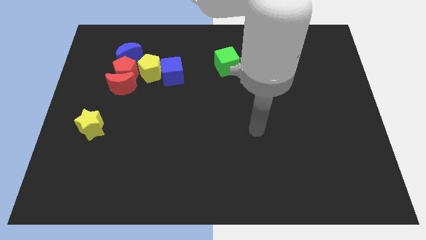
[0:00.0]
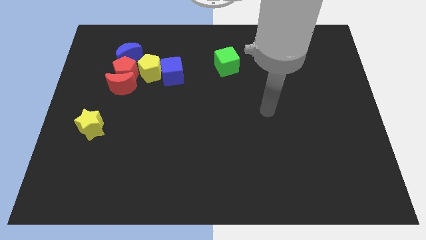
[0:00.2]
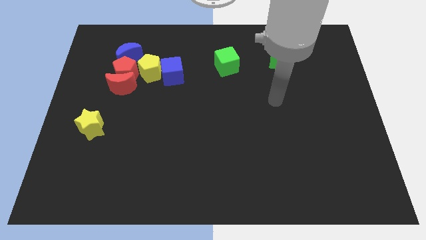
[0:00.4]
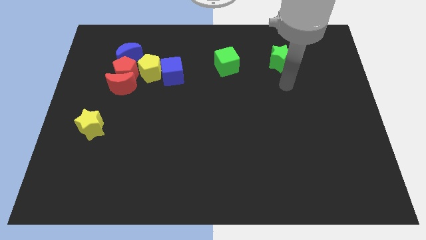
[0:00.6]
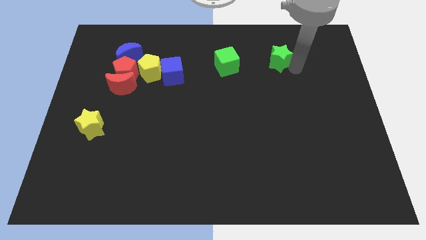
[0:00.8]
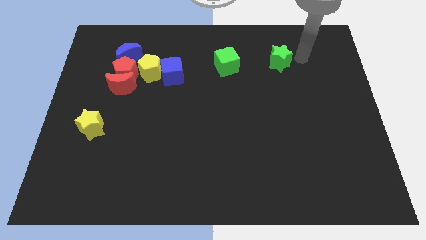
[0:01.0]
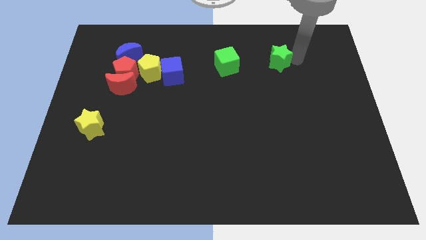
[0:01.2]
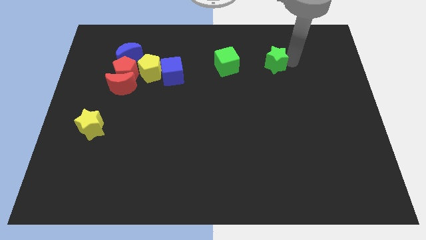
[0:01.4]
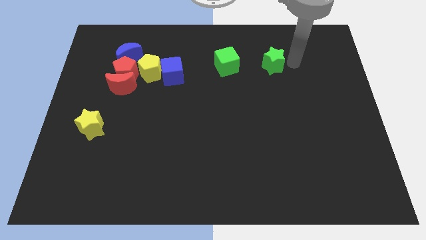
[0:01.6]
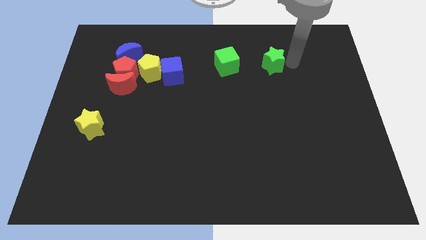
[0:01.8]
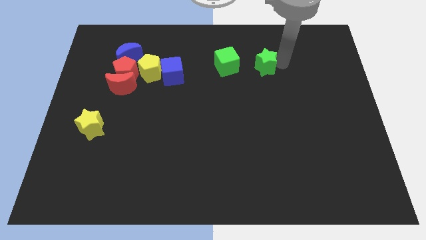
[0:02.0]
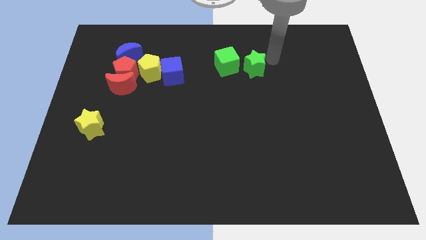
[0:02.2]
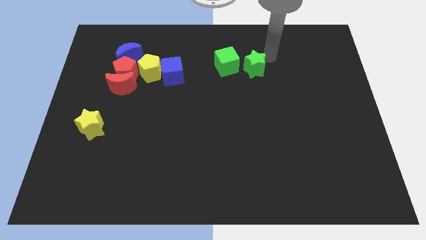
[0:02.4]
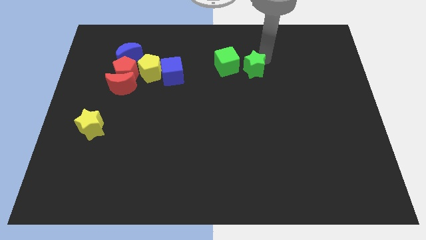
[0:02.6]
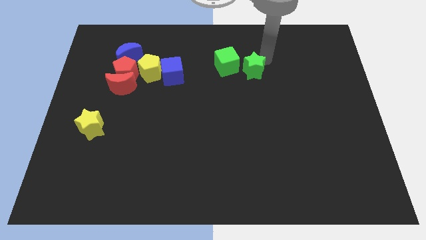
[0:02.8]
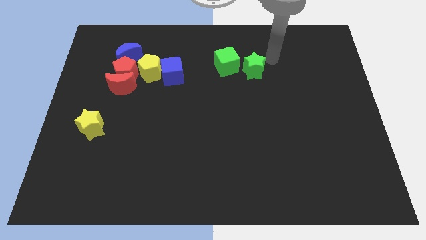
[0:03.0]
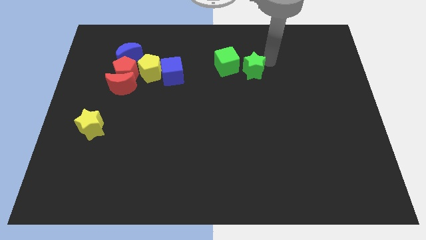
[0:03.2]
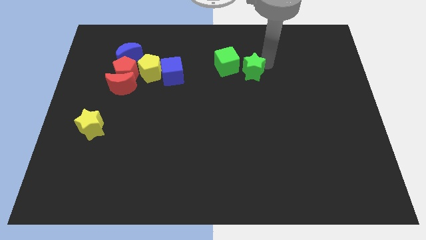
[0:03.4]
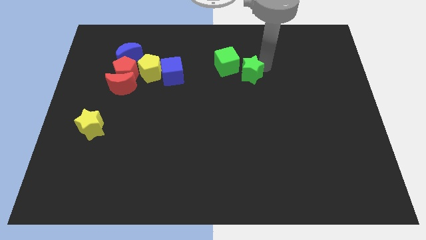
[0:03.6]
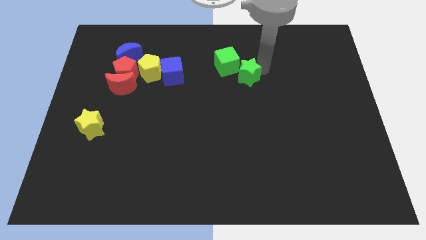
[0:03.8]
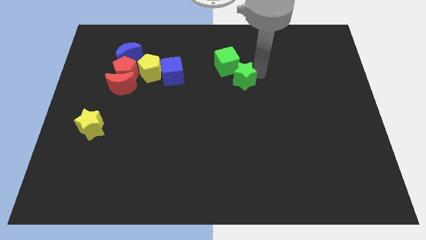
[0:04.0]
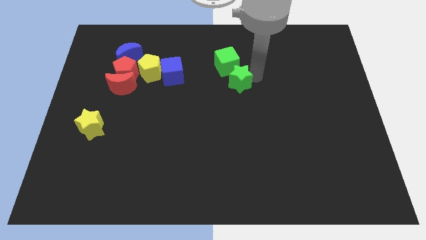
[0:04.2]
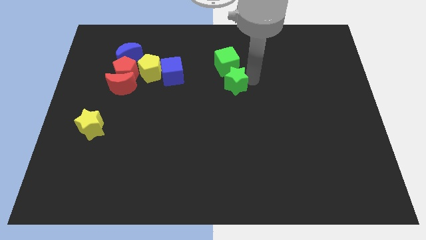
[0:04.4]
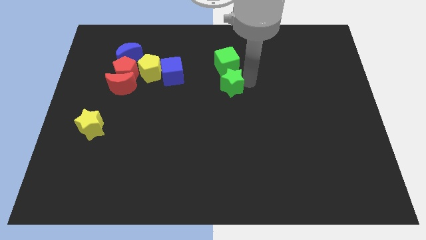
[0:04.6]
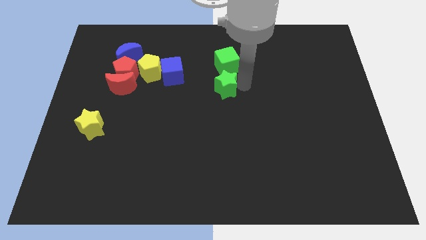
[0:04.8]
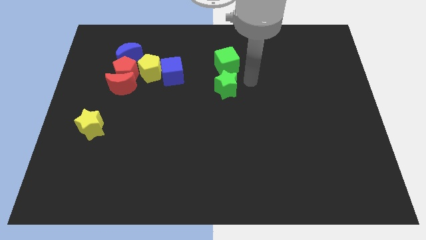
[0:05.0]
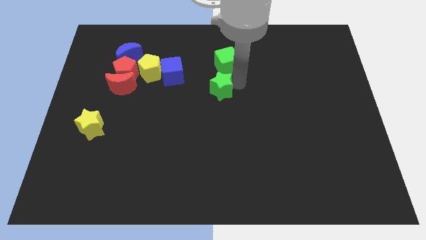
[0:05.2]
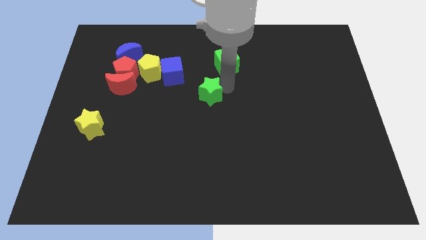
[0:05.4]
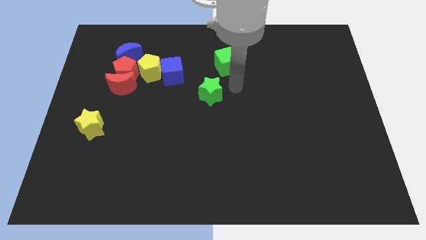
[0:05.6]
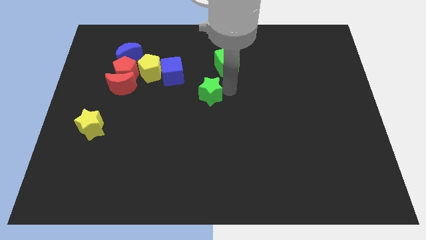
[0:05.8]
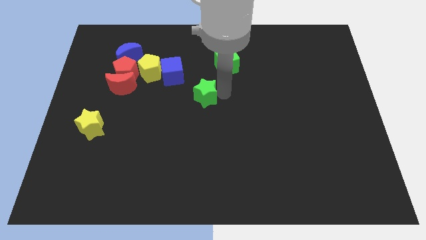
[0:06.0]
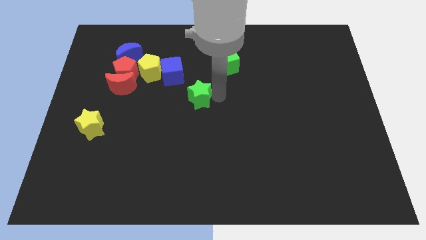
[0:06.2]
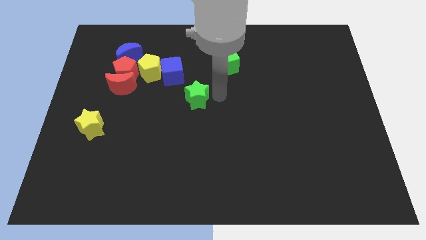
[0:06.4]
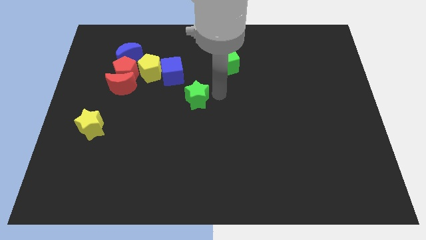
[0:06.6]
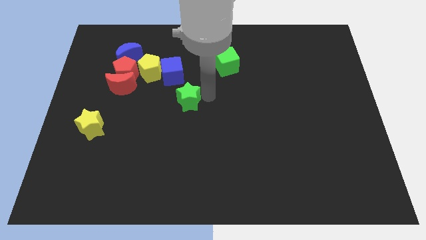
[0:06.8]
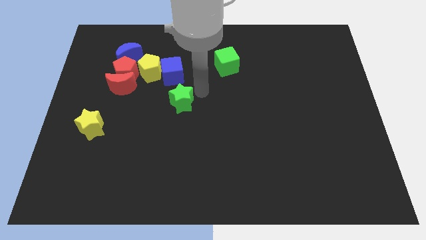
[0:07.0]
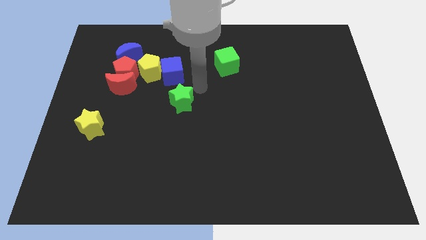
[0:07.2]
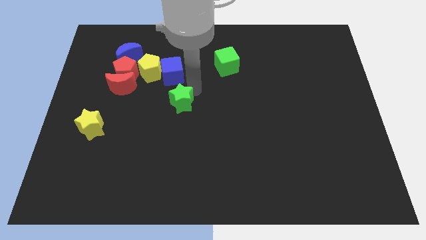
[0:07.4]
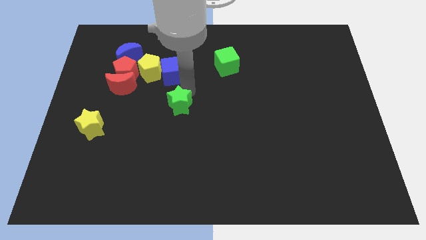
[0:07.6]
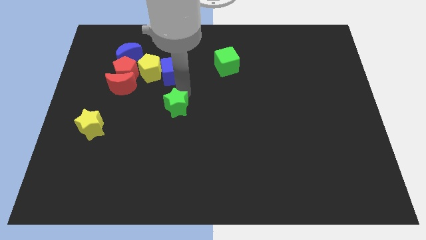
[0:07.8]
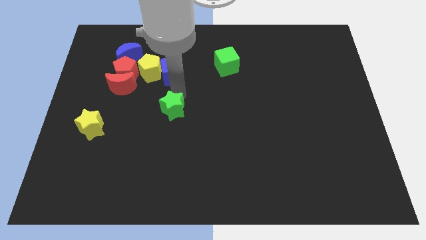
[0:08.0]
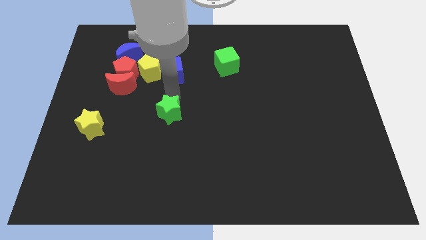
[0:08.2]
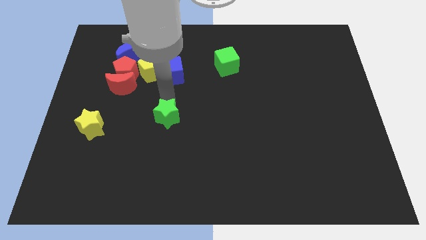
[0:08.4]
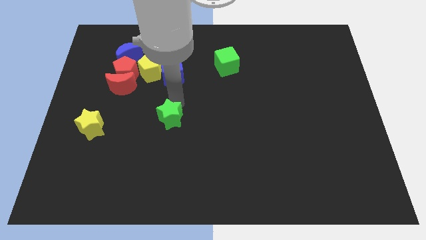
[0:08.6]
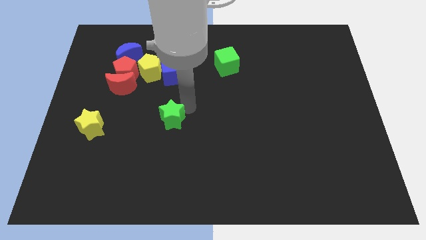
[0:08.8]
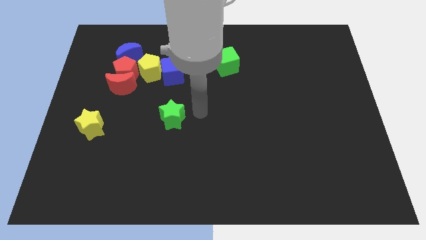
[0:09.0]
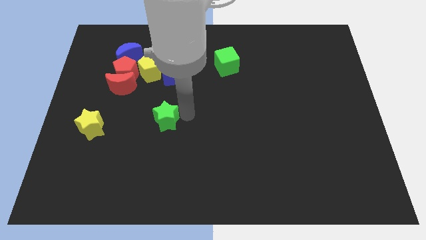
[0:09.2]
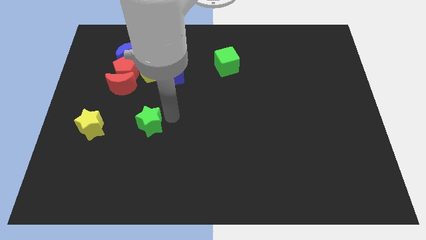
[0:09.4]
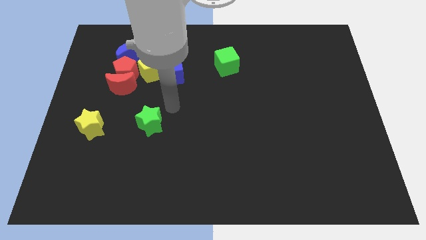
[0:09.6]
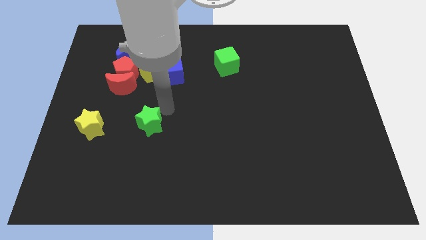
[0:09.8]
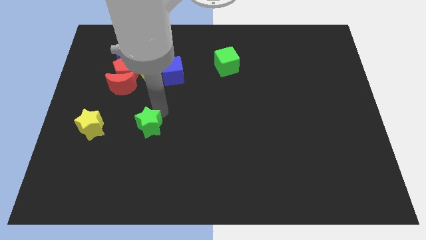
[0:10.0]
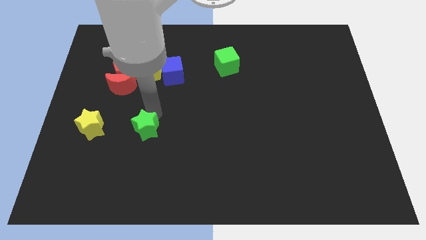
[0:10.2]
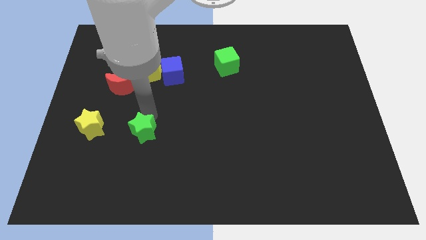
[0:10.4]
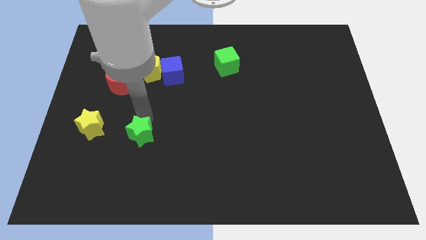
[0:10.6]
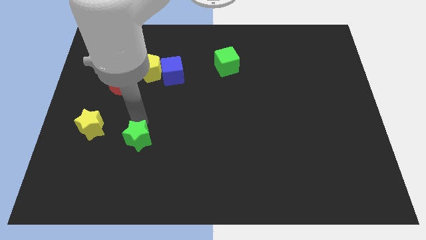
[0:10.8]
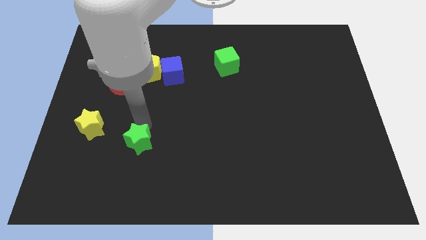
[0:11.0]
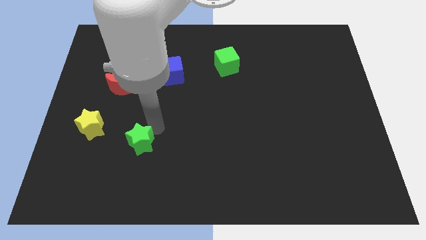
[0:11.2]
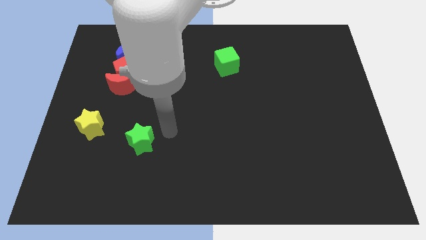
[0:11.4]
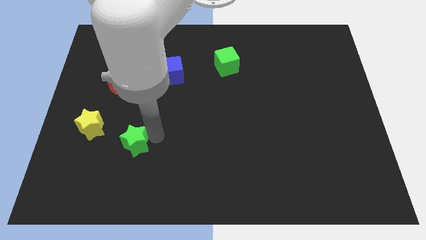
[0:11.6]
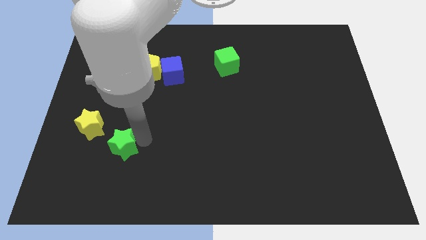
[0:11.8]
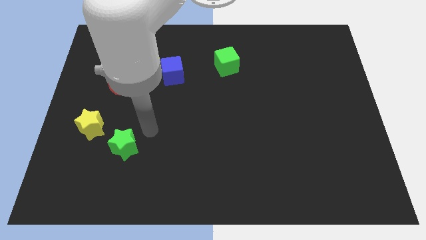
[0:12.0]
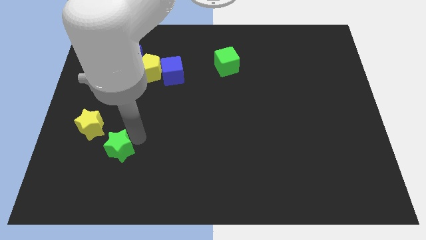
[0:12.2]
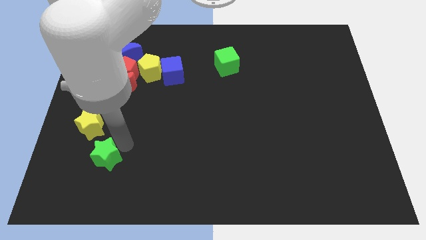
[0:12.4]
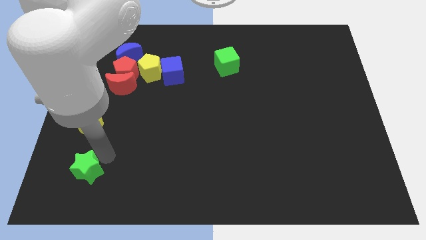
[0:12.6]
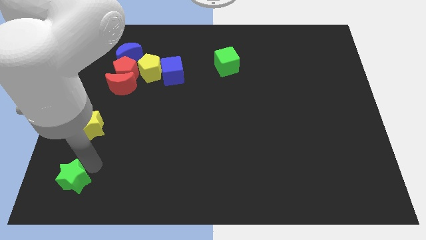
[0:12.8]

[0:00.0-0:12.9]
slide the green star to the lower left corner
